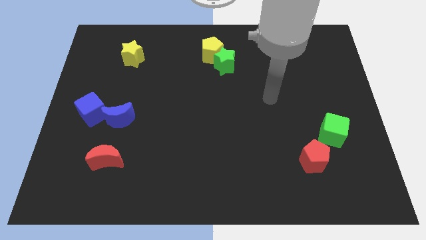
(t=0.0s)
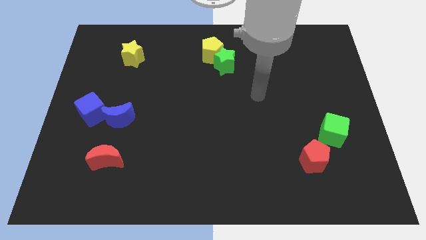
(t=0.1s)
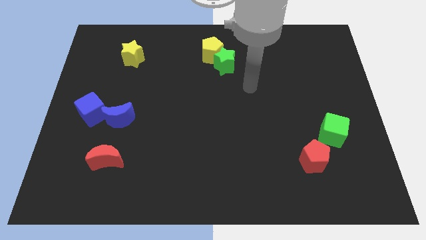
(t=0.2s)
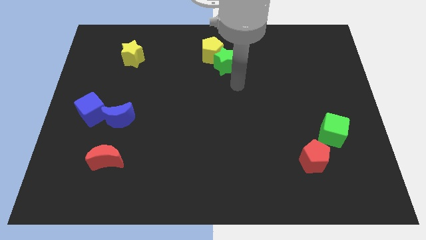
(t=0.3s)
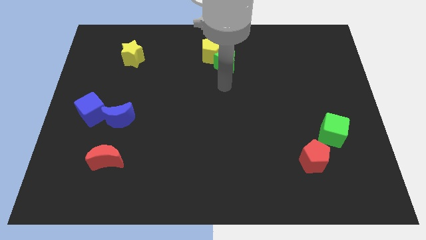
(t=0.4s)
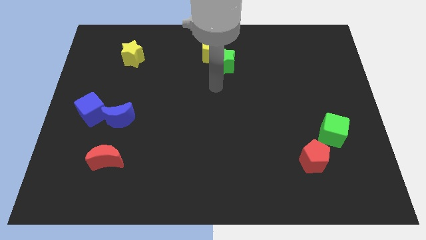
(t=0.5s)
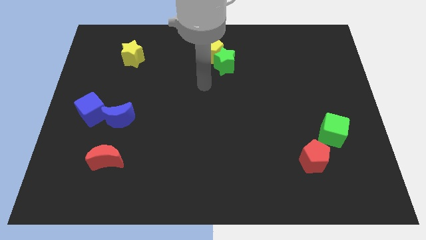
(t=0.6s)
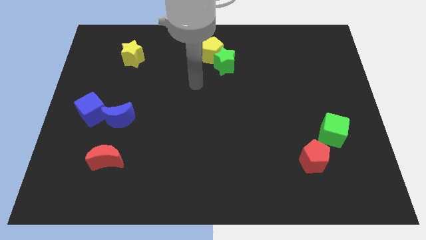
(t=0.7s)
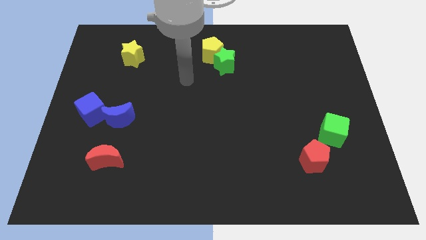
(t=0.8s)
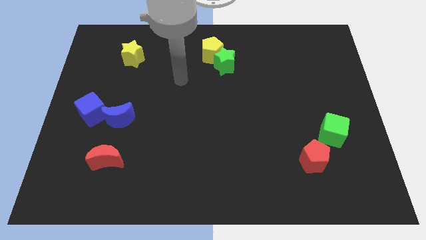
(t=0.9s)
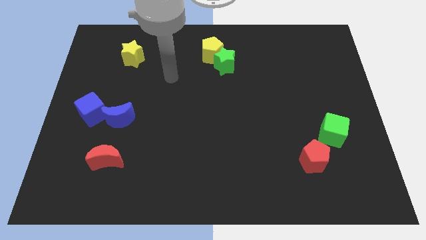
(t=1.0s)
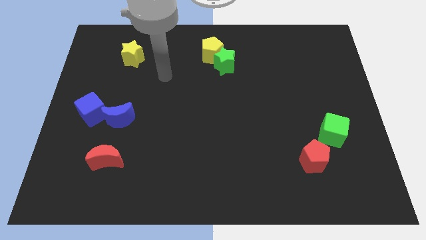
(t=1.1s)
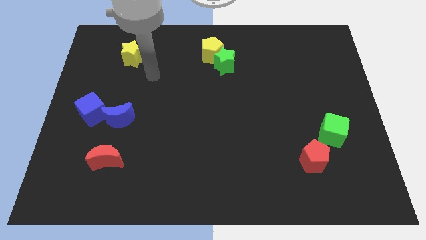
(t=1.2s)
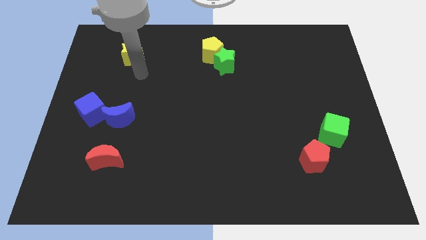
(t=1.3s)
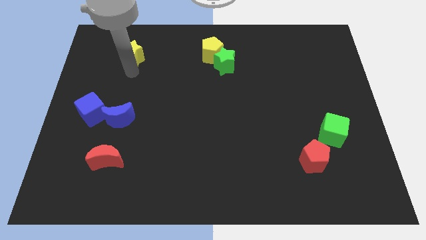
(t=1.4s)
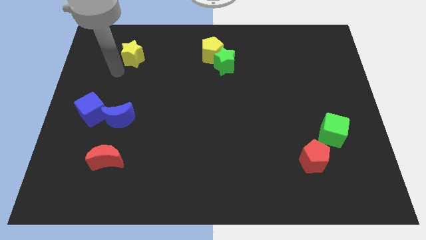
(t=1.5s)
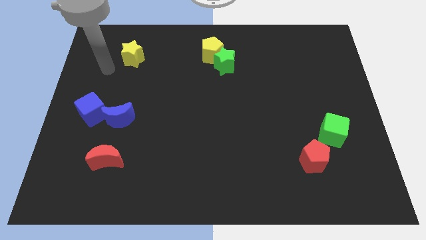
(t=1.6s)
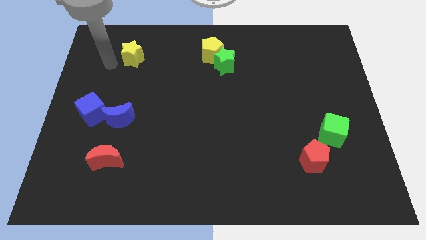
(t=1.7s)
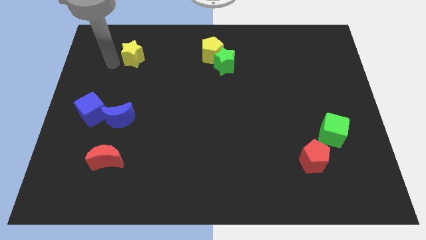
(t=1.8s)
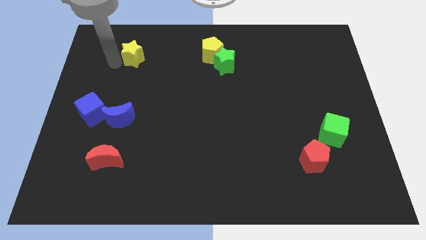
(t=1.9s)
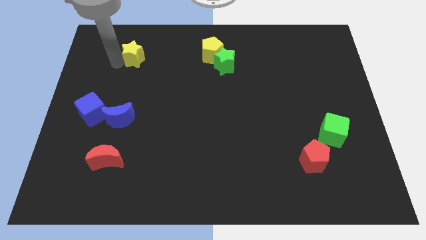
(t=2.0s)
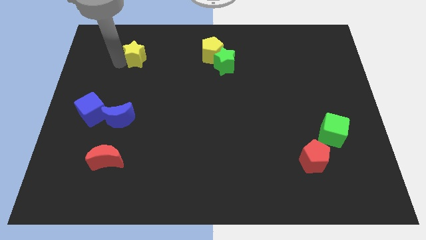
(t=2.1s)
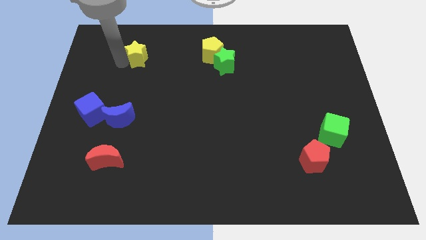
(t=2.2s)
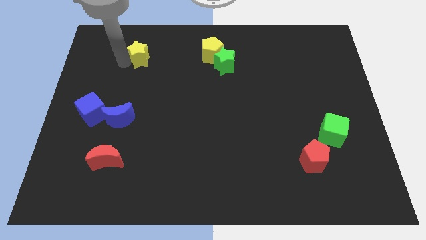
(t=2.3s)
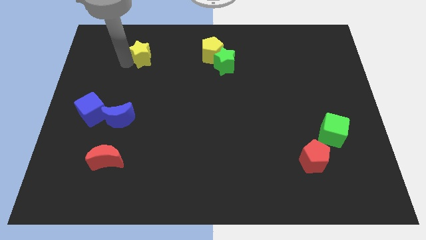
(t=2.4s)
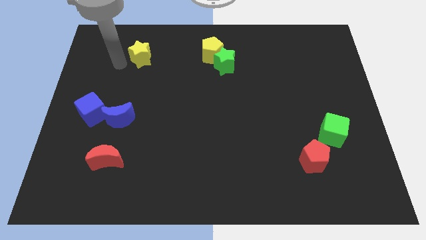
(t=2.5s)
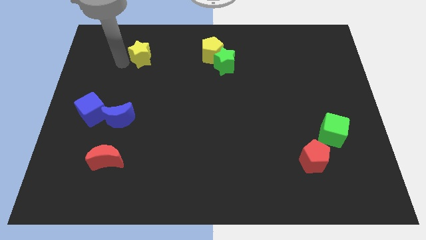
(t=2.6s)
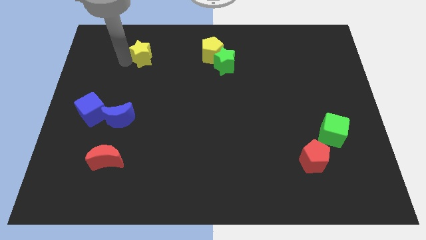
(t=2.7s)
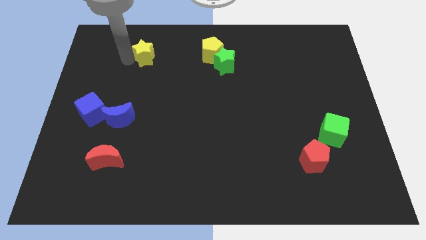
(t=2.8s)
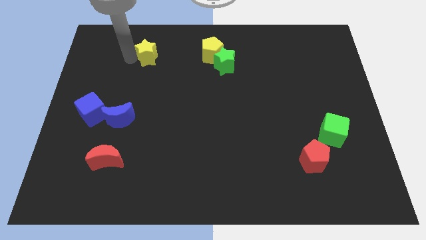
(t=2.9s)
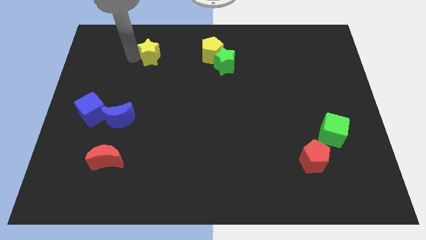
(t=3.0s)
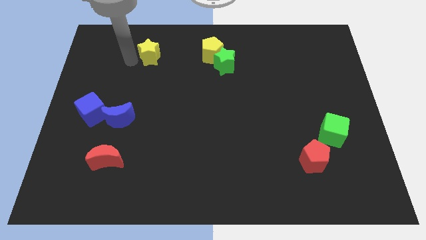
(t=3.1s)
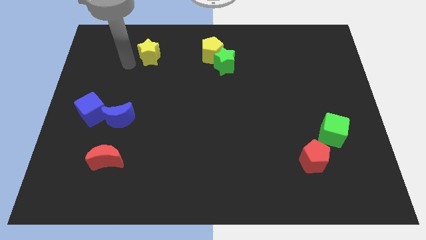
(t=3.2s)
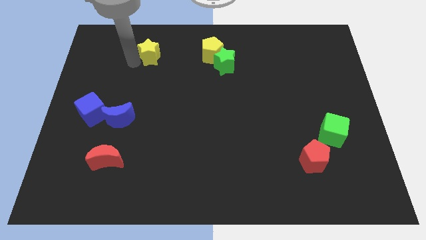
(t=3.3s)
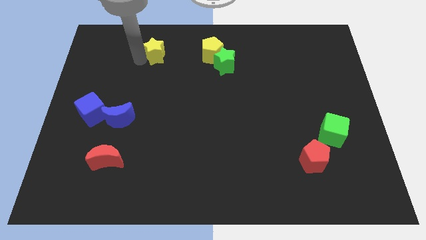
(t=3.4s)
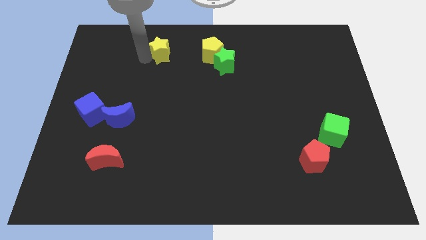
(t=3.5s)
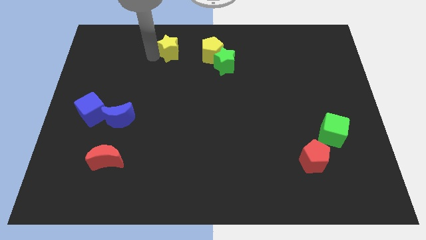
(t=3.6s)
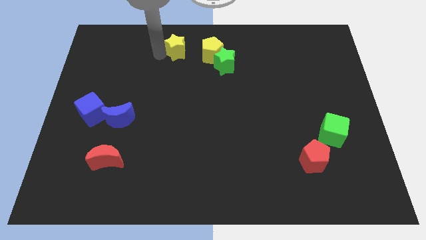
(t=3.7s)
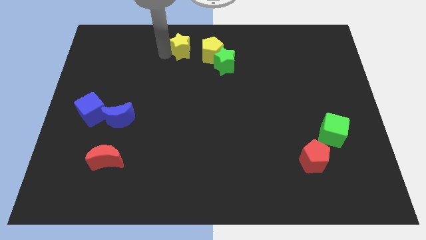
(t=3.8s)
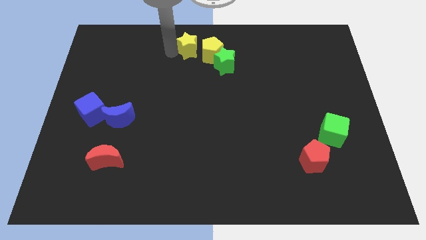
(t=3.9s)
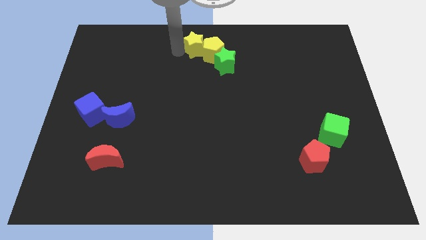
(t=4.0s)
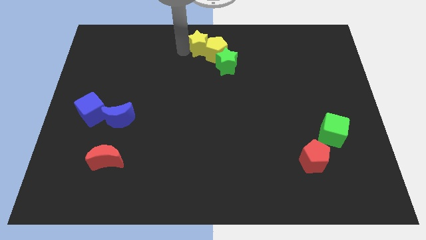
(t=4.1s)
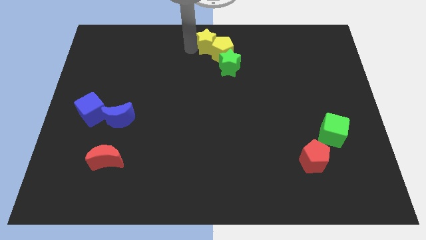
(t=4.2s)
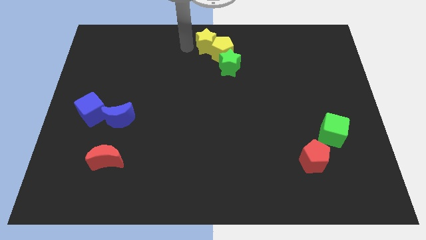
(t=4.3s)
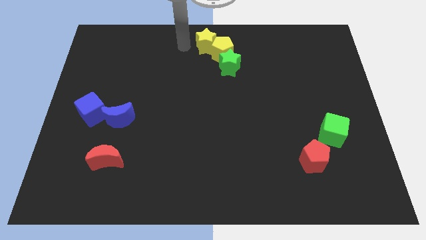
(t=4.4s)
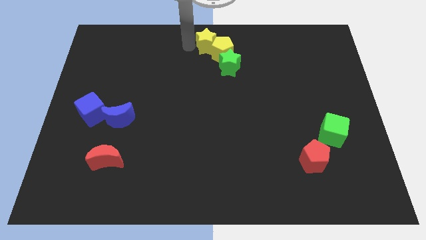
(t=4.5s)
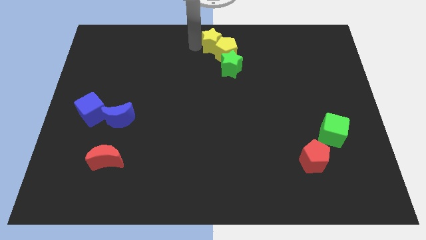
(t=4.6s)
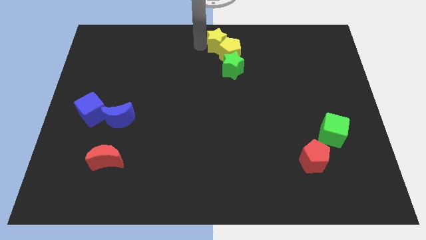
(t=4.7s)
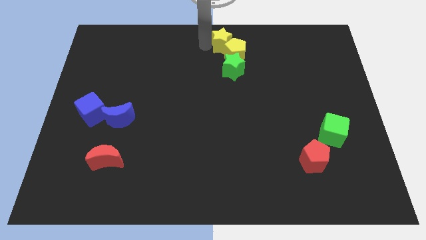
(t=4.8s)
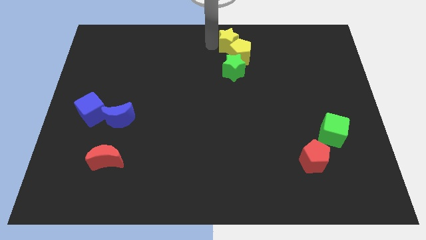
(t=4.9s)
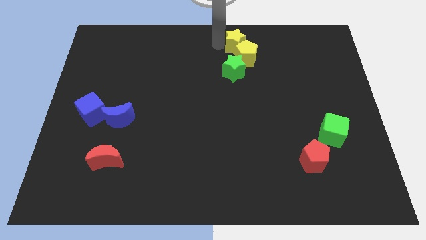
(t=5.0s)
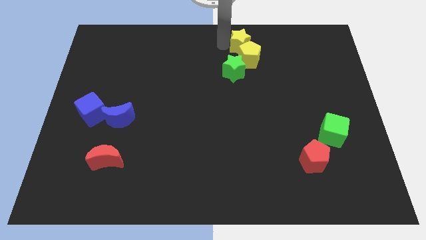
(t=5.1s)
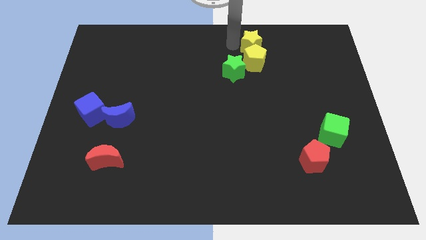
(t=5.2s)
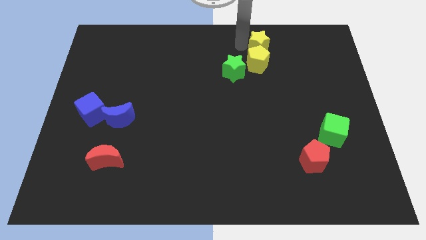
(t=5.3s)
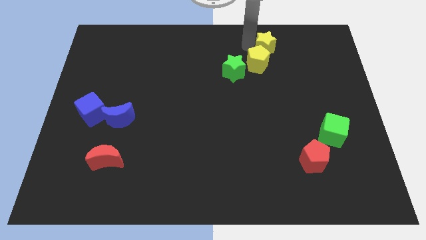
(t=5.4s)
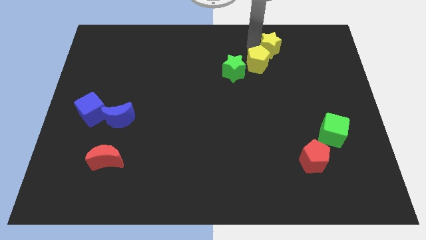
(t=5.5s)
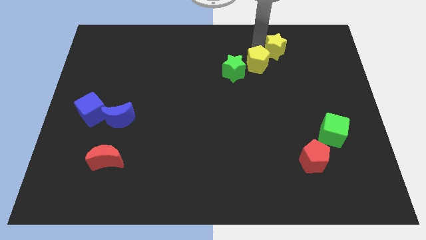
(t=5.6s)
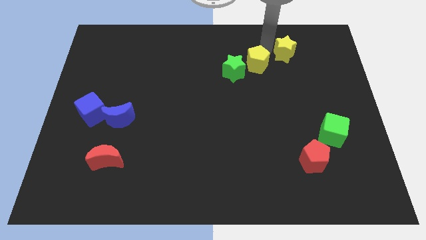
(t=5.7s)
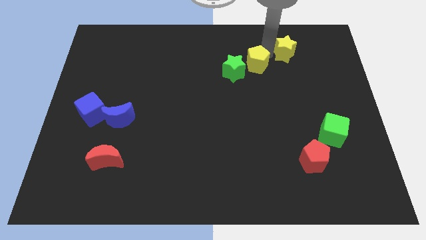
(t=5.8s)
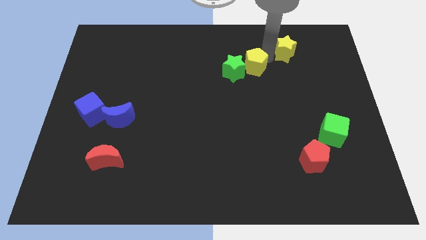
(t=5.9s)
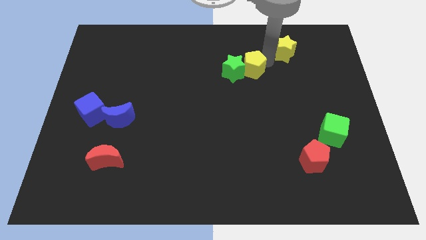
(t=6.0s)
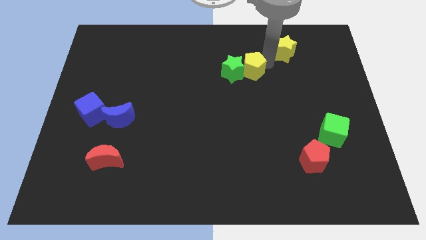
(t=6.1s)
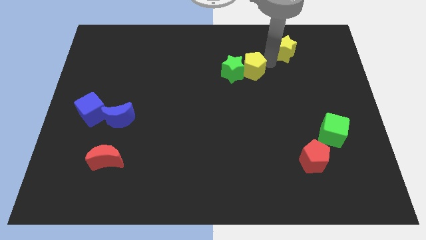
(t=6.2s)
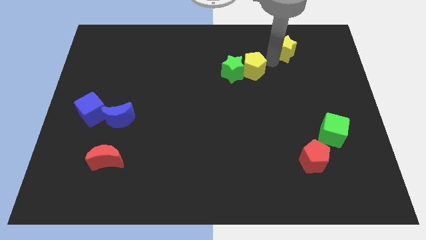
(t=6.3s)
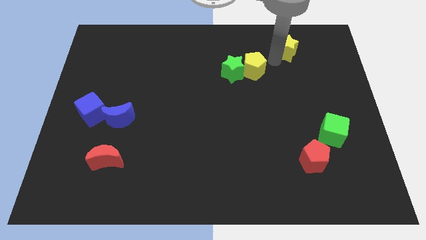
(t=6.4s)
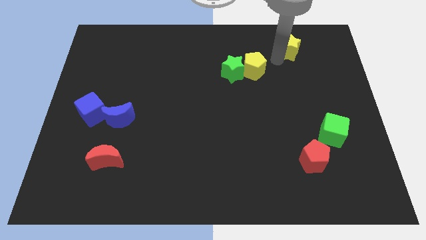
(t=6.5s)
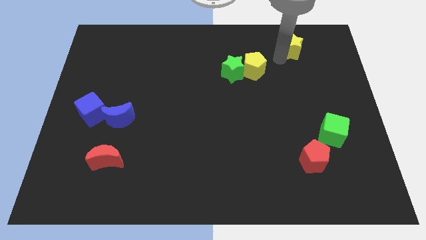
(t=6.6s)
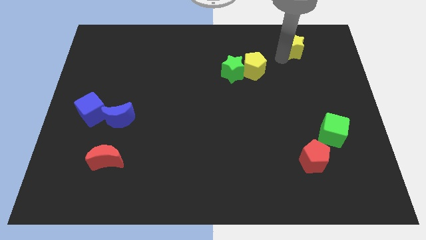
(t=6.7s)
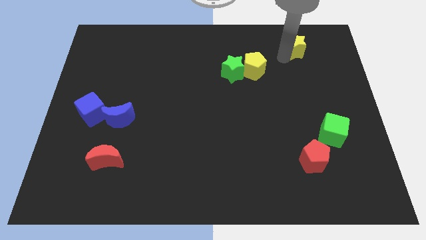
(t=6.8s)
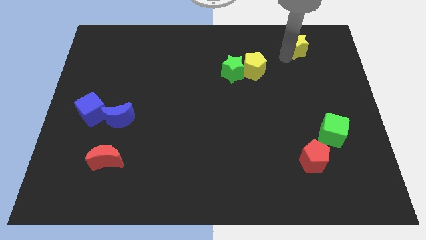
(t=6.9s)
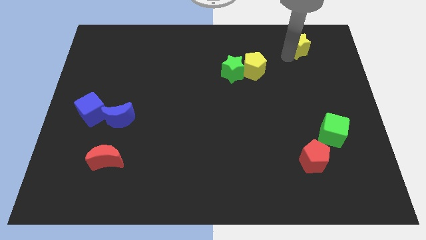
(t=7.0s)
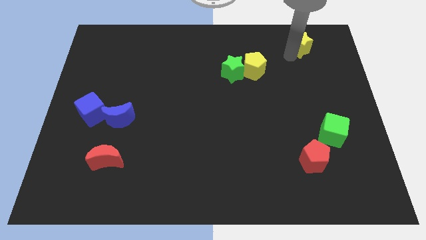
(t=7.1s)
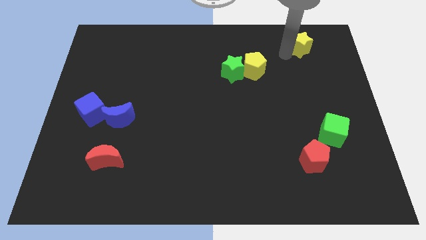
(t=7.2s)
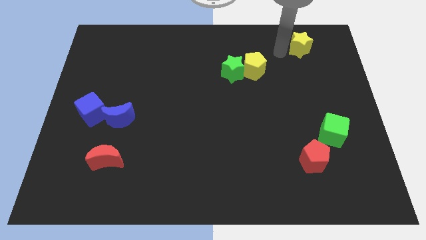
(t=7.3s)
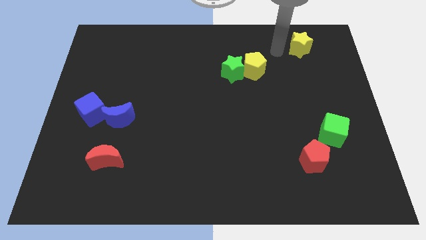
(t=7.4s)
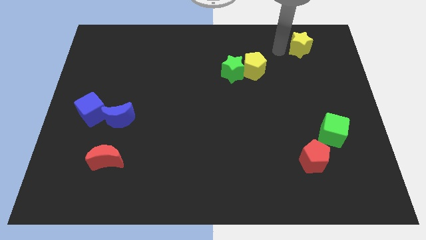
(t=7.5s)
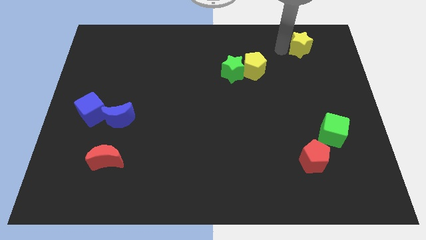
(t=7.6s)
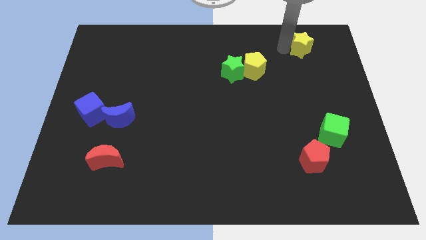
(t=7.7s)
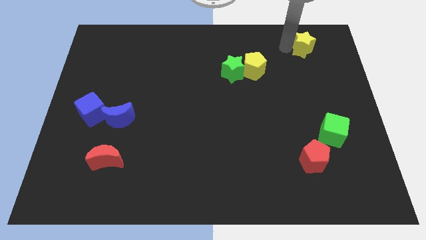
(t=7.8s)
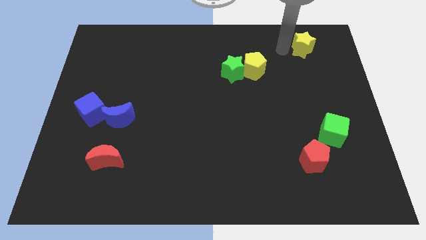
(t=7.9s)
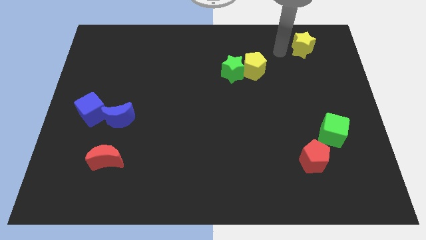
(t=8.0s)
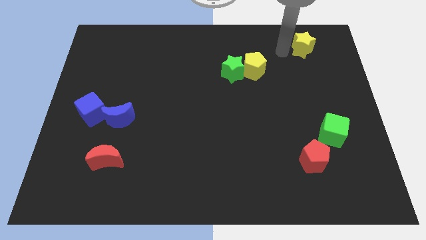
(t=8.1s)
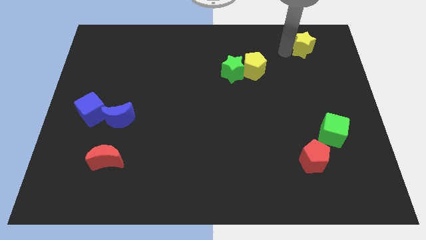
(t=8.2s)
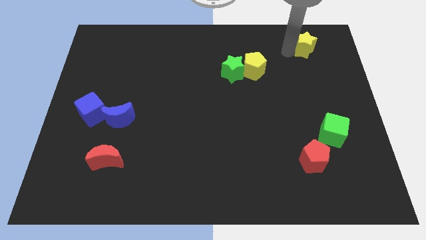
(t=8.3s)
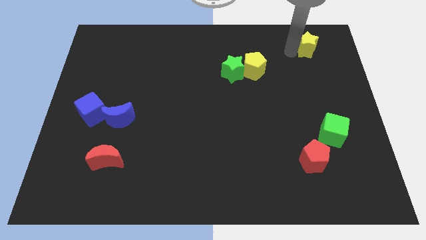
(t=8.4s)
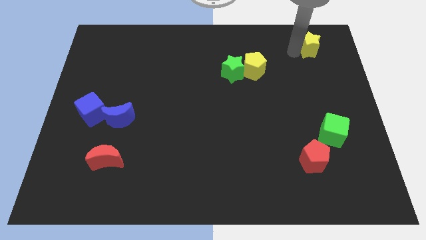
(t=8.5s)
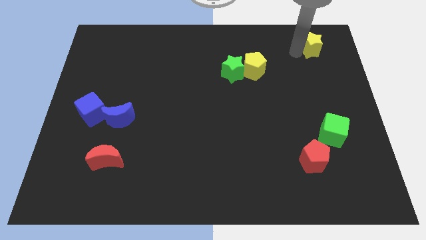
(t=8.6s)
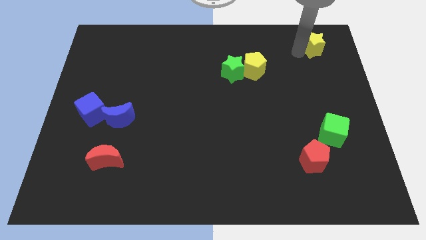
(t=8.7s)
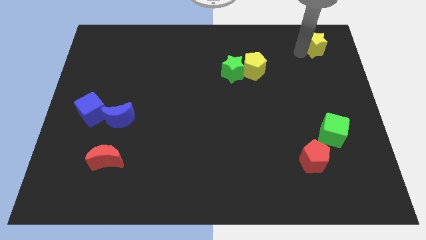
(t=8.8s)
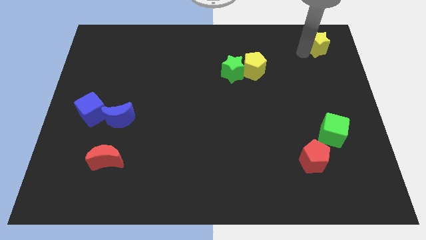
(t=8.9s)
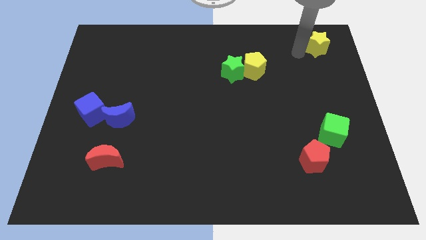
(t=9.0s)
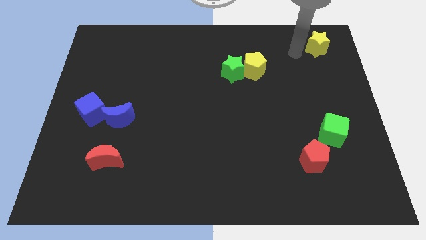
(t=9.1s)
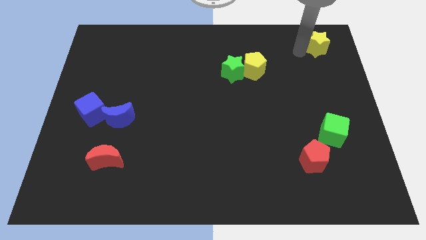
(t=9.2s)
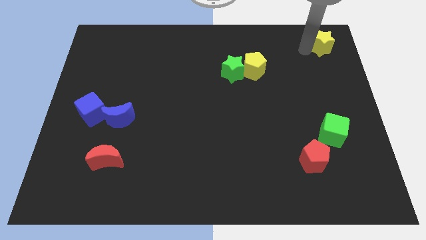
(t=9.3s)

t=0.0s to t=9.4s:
push the yellow star to the top right of the board
